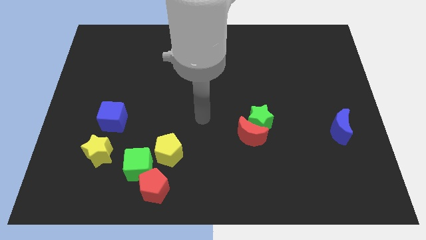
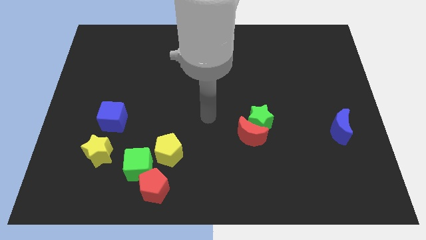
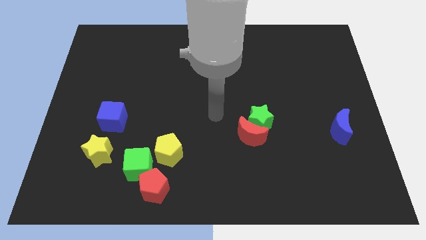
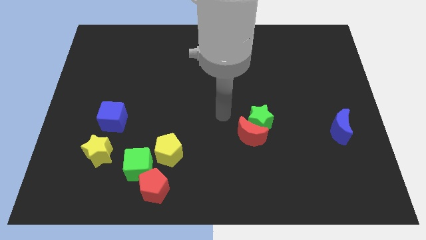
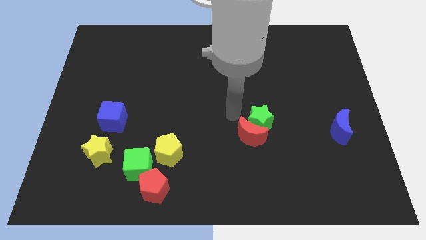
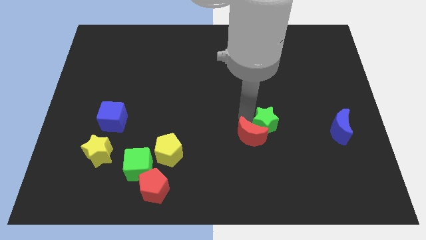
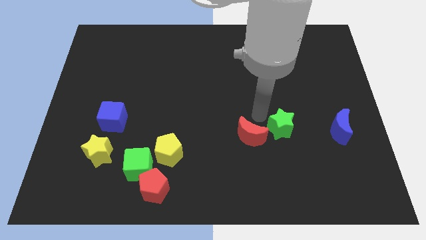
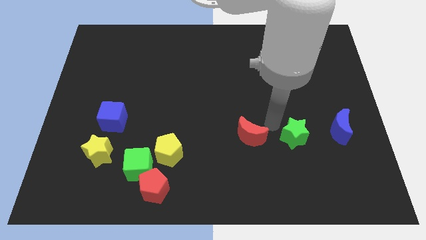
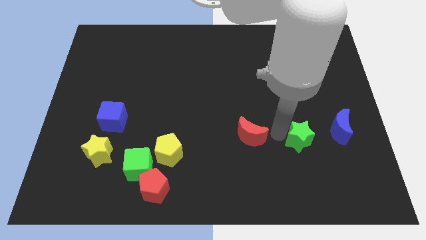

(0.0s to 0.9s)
move the red moon away from the green star

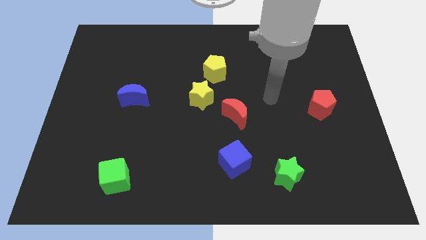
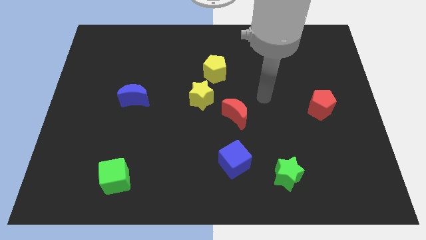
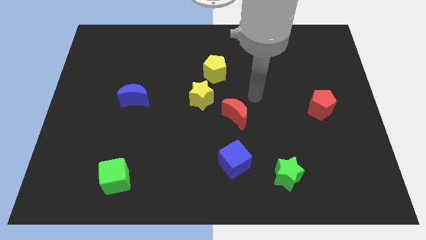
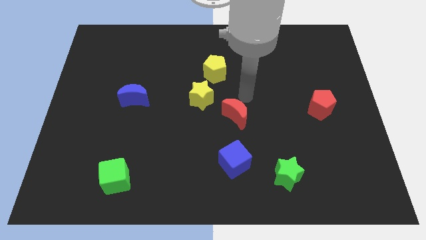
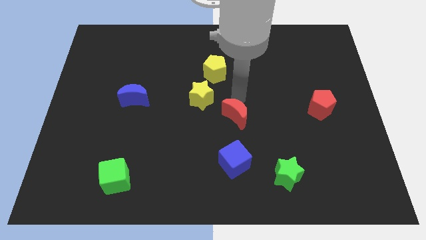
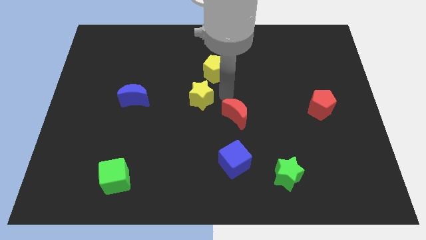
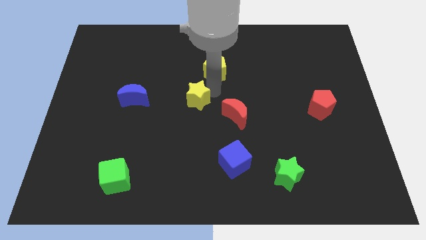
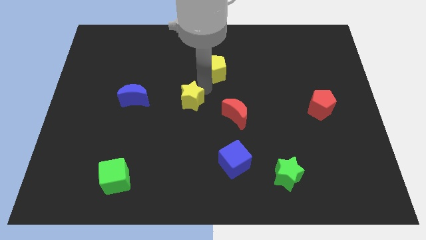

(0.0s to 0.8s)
pull the yellow pentagon apart from the yellow star

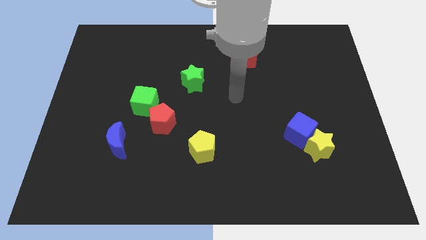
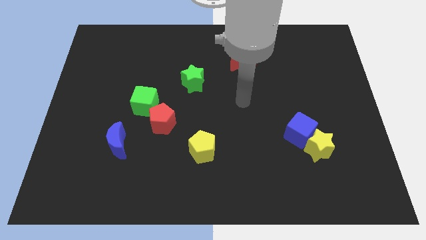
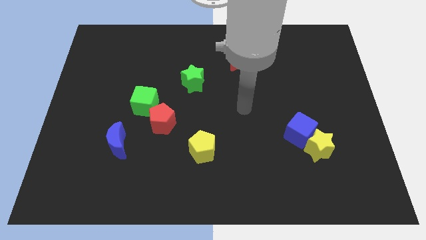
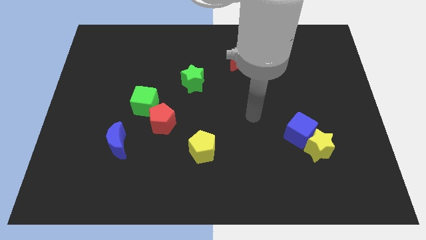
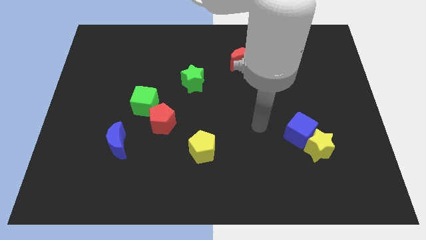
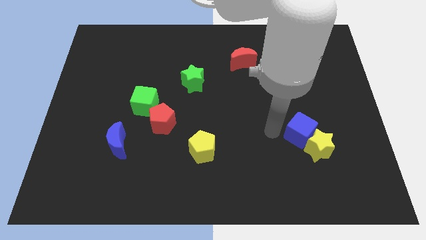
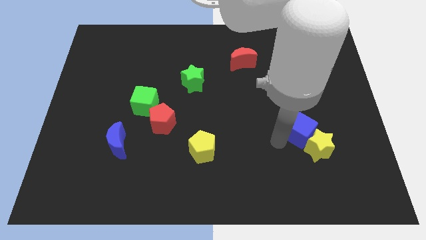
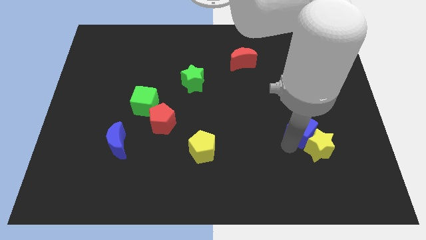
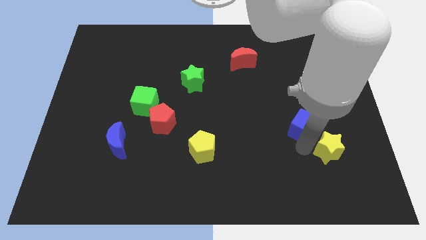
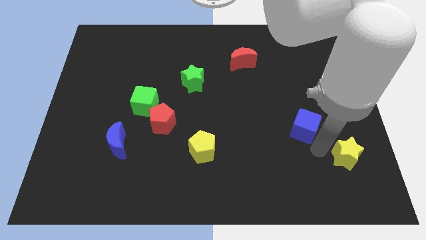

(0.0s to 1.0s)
pull the blue cube apart from the yellow star

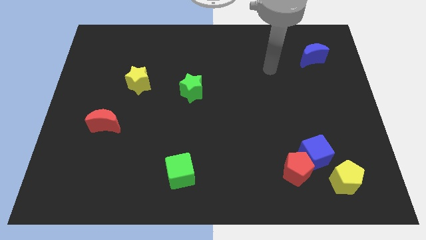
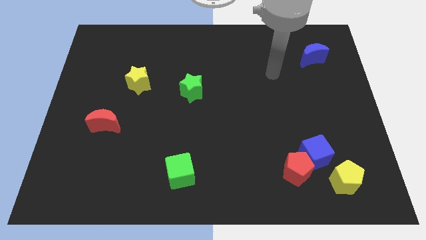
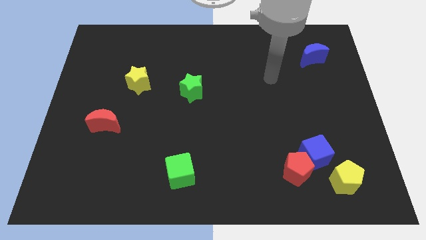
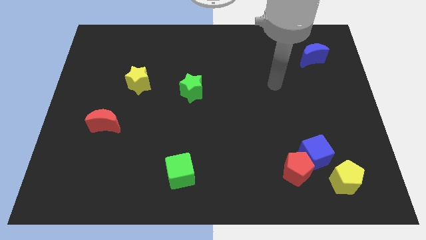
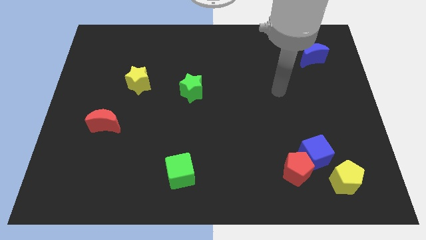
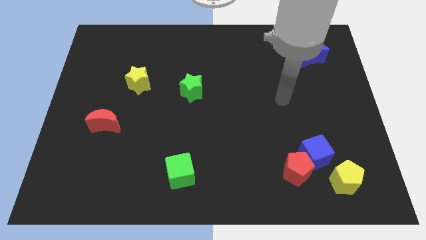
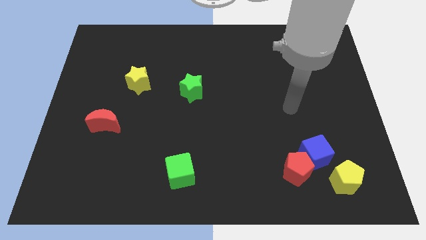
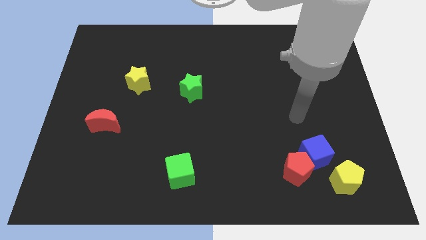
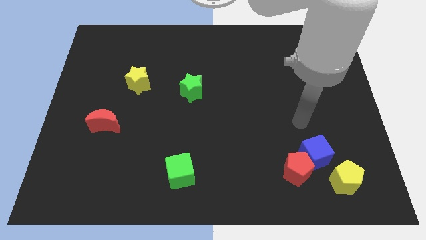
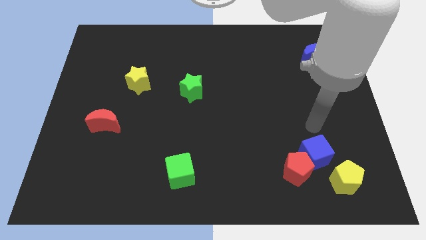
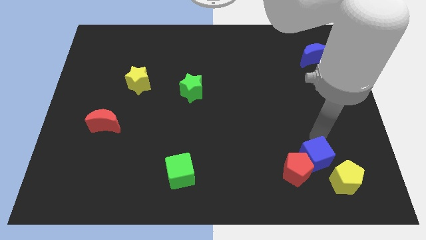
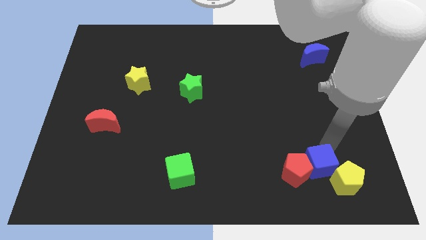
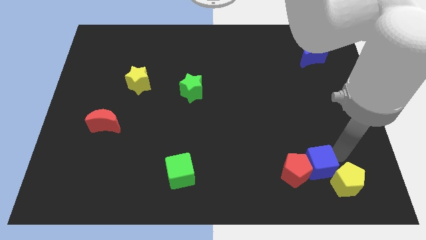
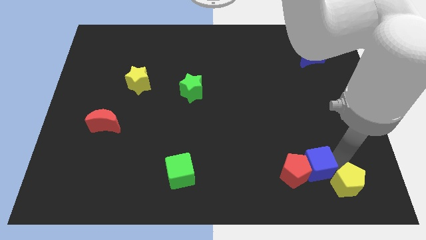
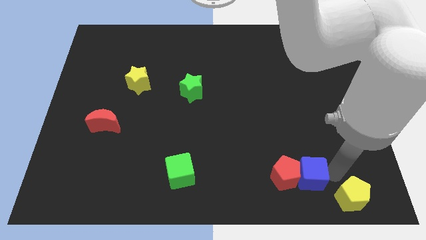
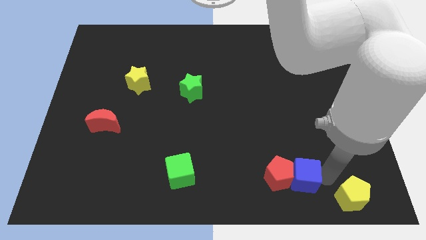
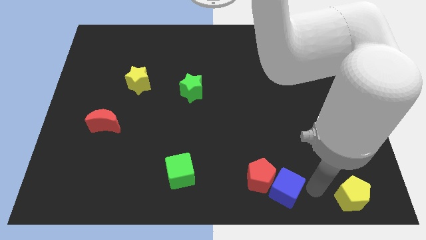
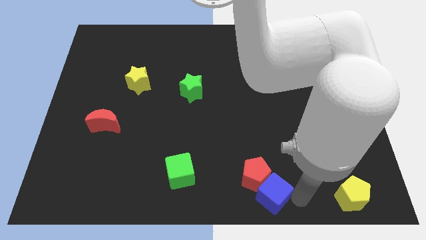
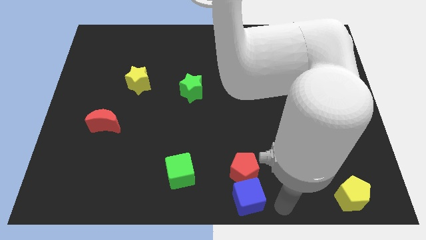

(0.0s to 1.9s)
separate the blue cube from the red pentagon and yellow pentagon

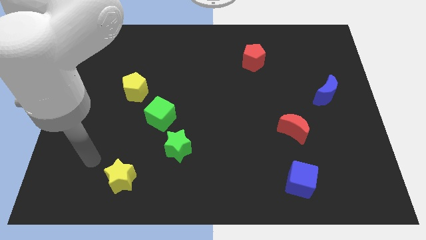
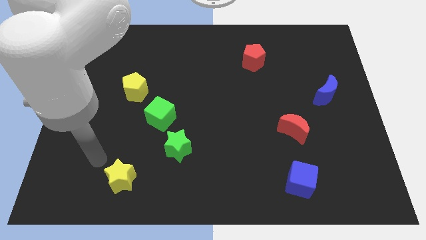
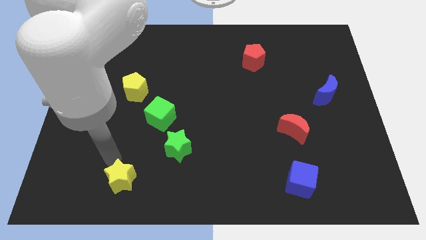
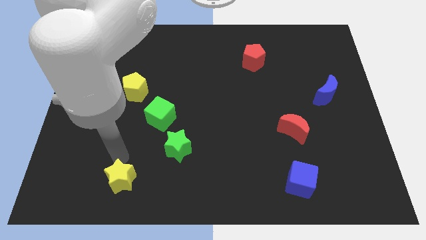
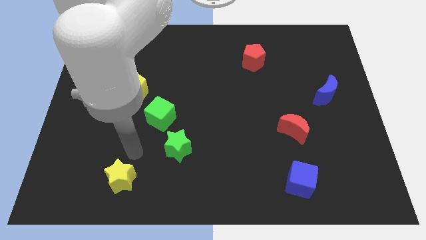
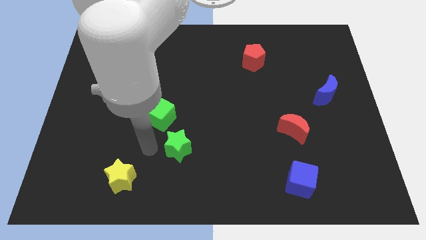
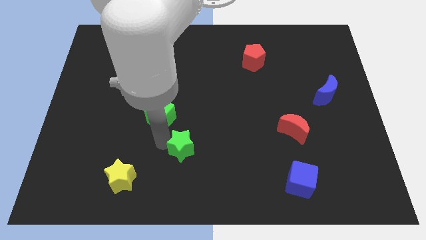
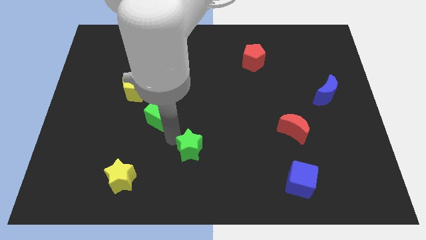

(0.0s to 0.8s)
move the green cube away from the green star

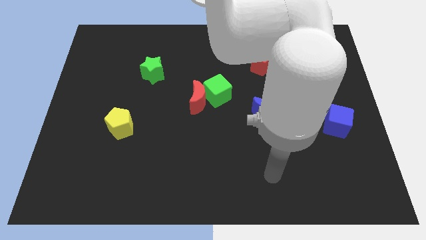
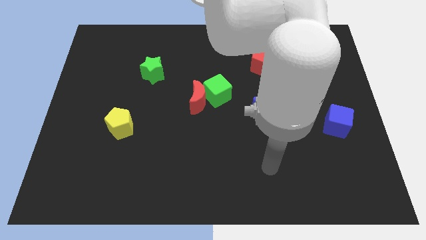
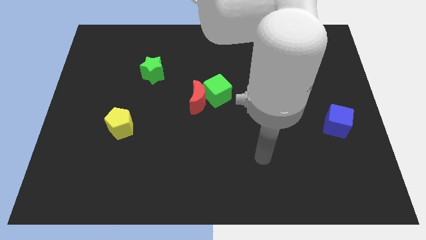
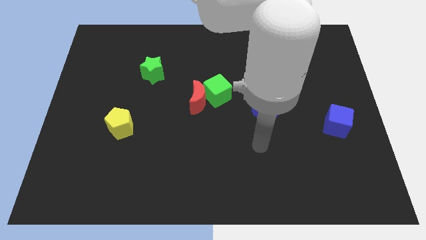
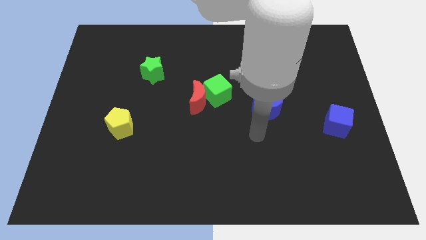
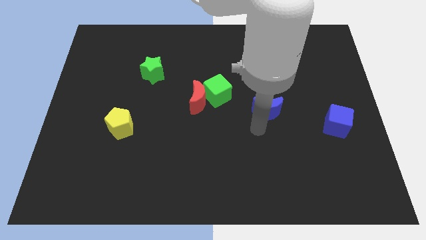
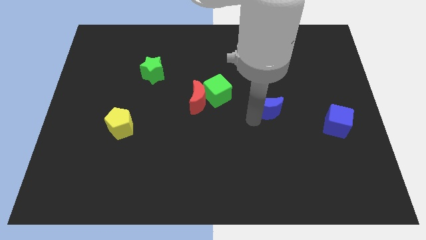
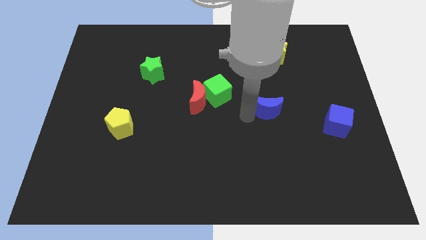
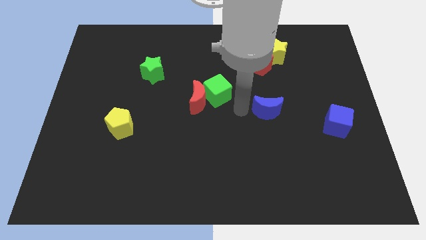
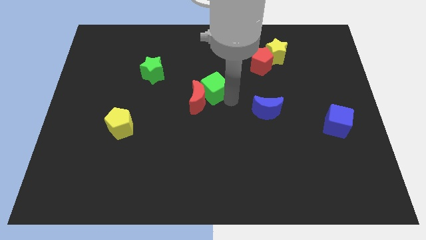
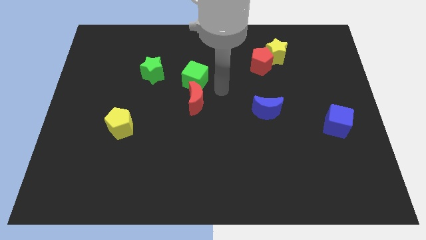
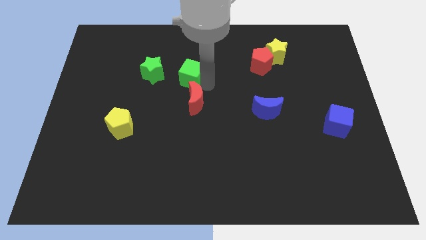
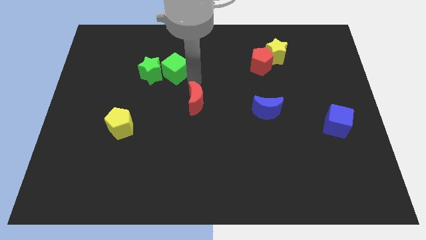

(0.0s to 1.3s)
move the red moon away from the green cube

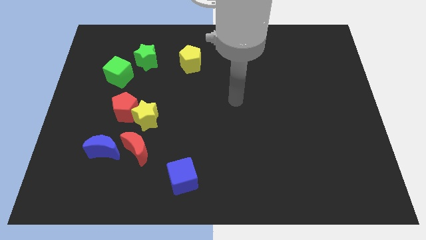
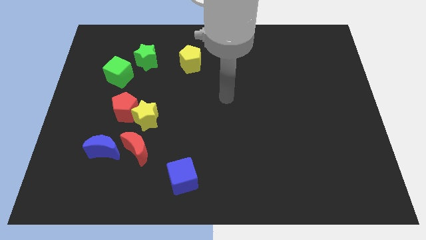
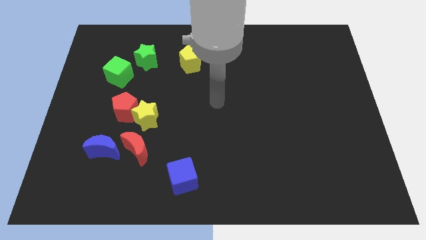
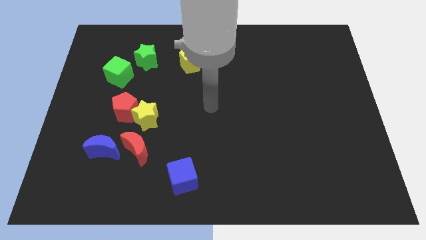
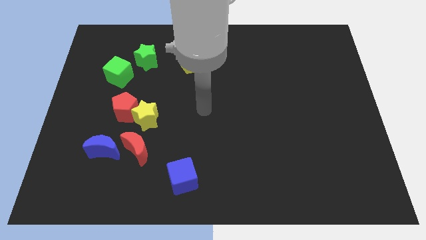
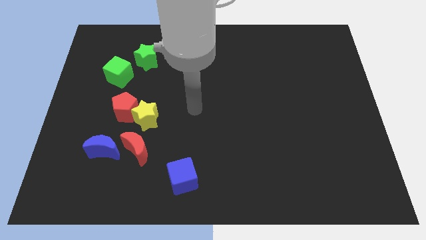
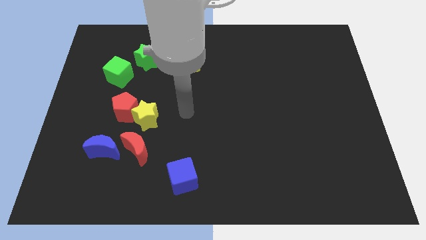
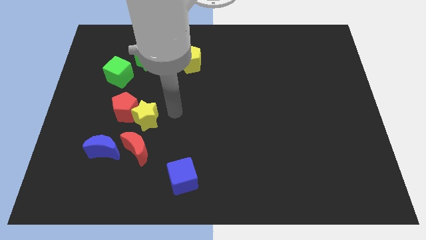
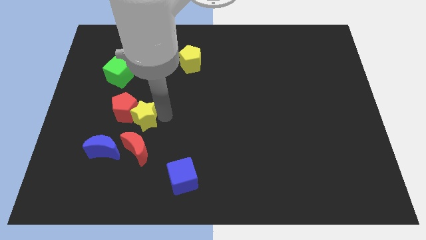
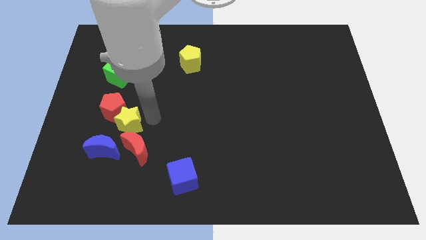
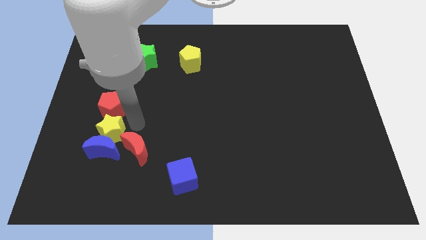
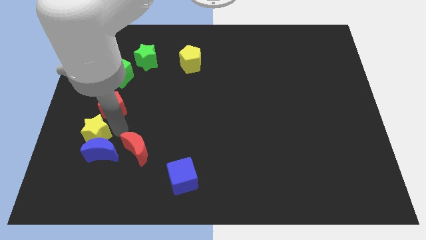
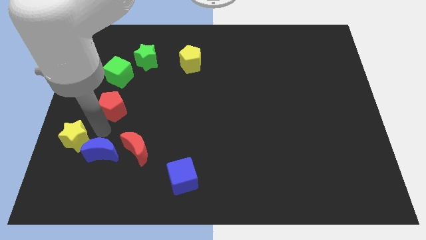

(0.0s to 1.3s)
separate the red pentagon from the yellow star

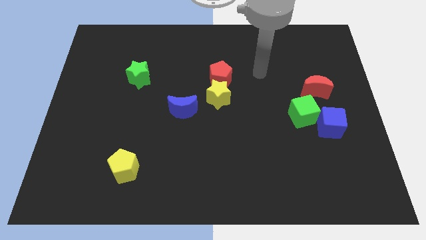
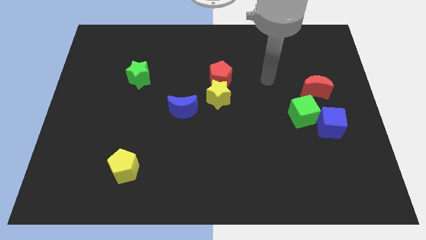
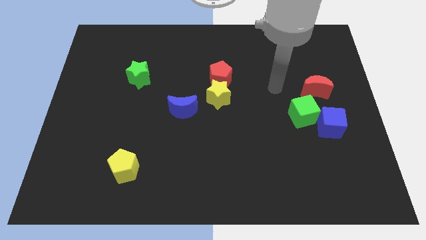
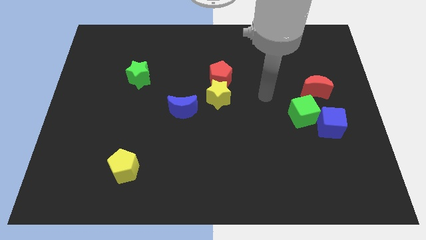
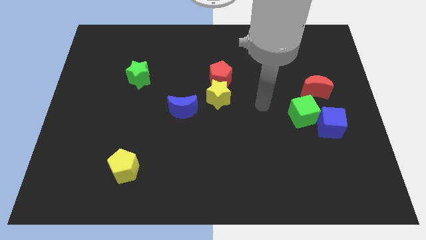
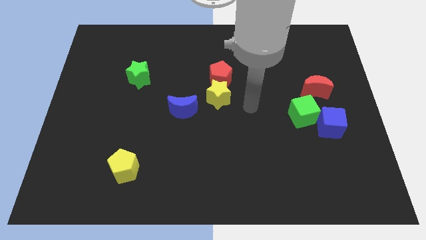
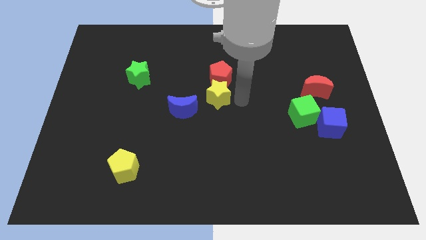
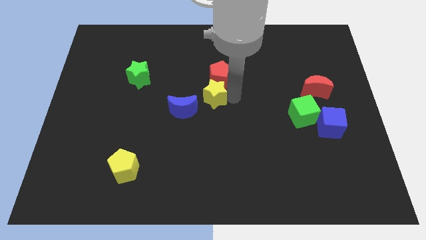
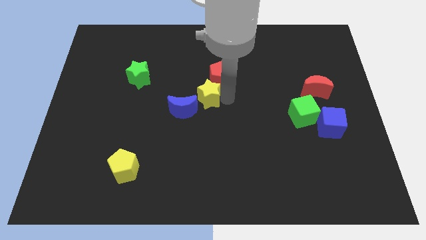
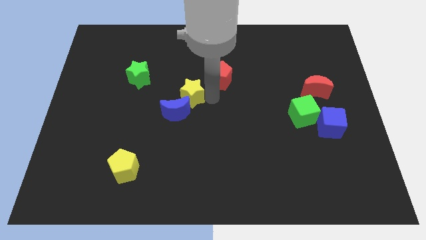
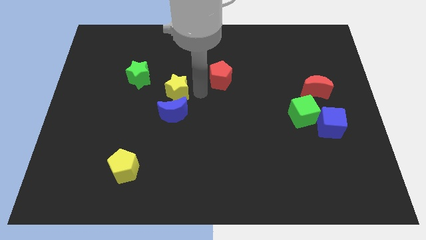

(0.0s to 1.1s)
pull the red pentagon apart from the yellow star

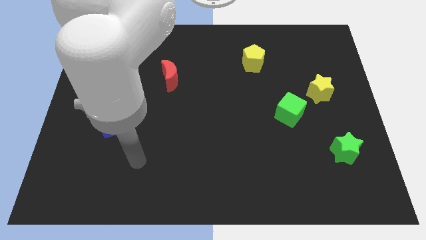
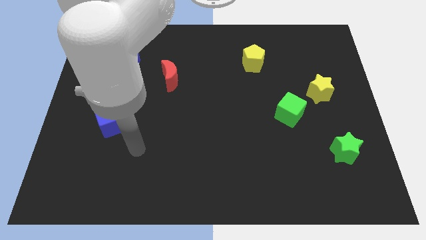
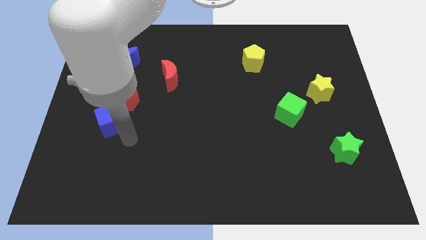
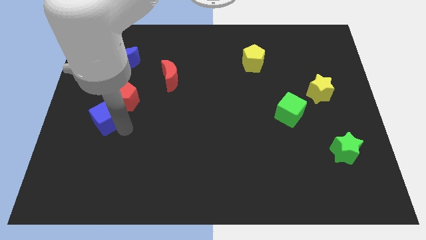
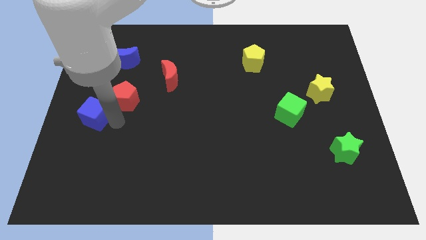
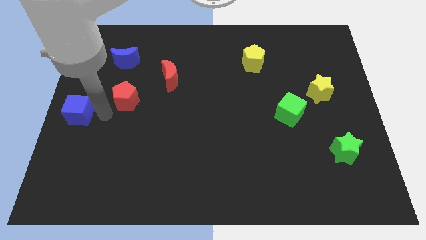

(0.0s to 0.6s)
separate the red pentagon from the blue cube
